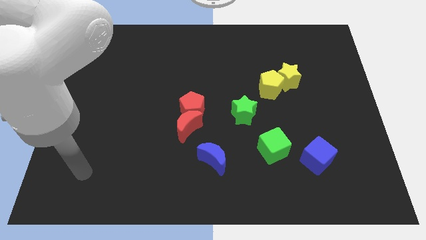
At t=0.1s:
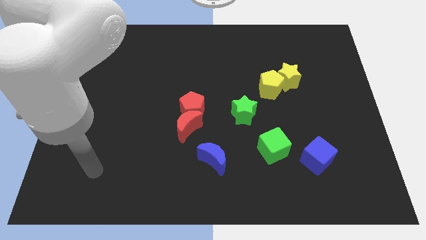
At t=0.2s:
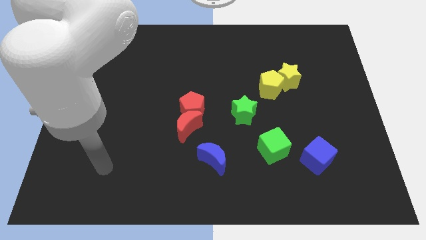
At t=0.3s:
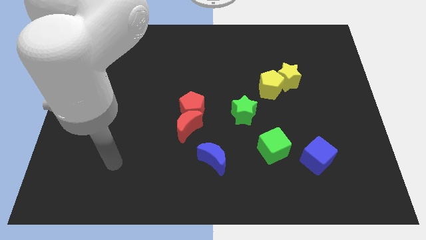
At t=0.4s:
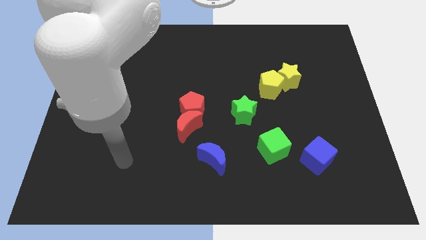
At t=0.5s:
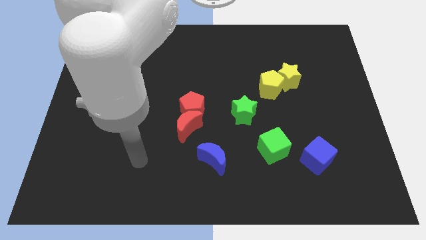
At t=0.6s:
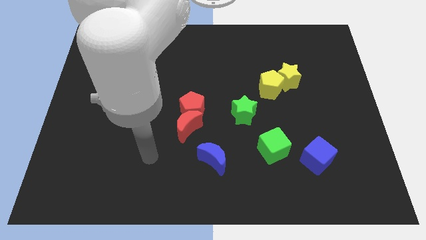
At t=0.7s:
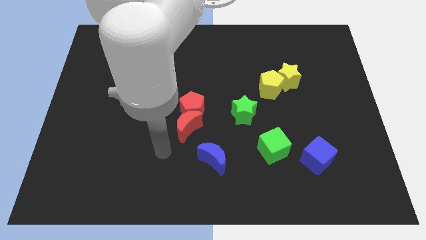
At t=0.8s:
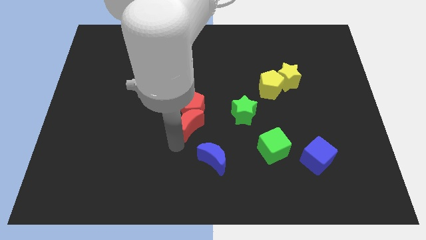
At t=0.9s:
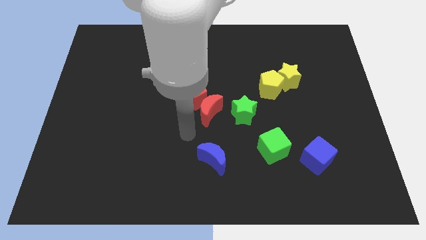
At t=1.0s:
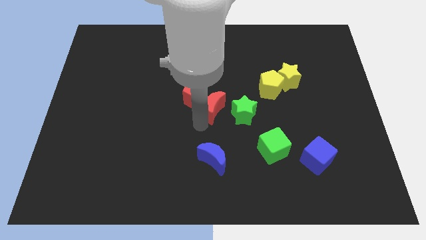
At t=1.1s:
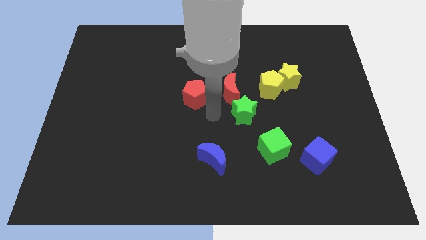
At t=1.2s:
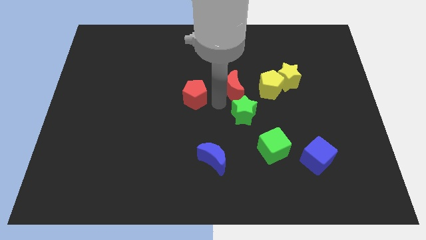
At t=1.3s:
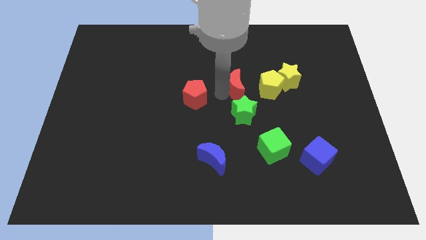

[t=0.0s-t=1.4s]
pull the red pentagon apart from the red moon

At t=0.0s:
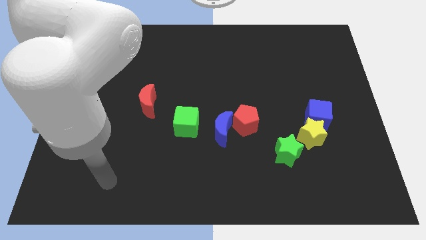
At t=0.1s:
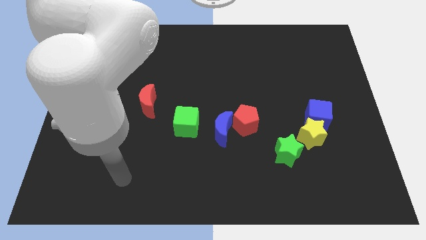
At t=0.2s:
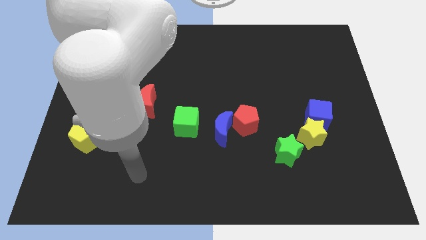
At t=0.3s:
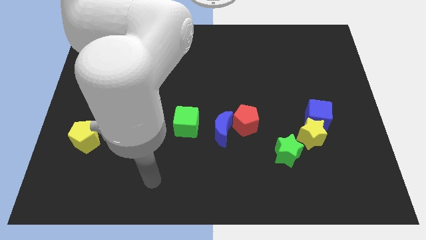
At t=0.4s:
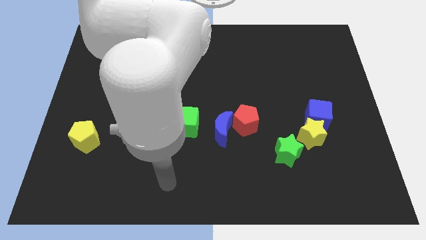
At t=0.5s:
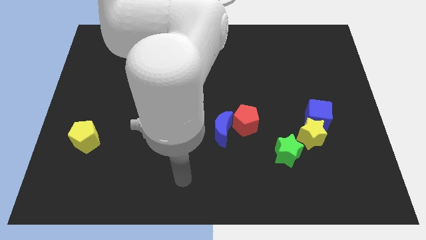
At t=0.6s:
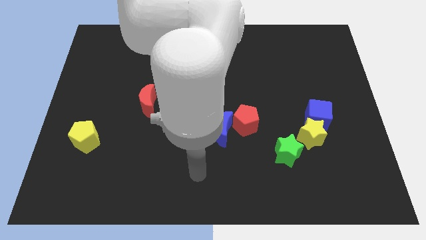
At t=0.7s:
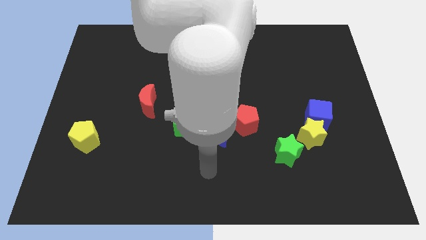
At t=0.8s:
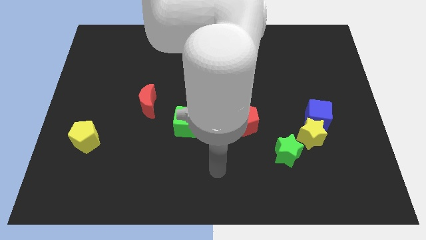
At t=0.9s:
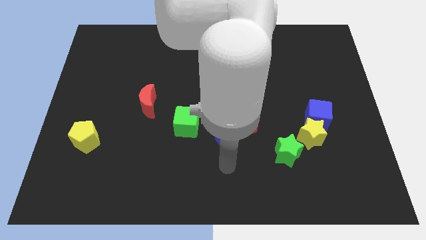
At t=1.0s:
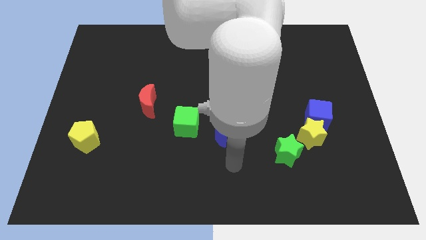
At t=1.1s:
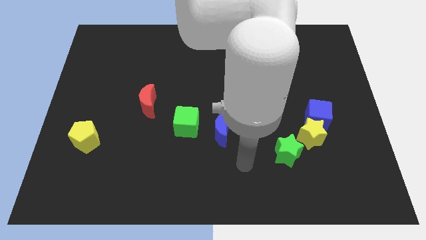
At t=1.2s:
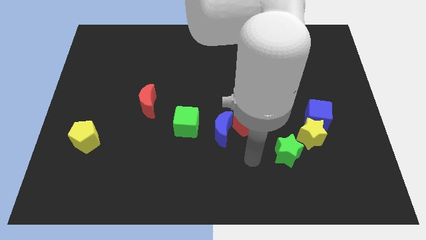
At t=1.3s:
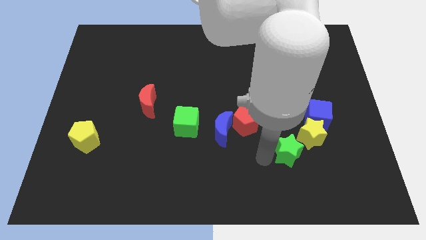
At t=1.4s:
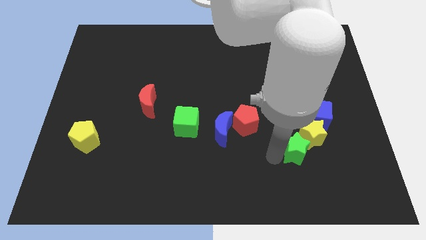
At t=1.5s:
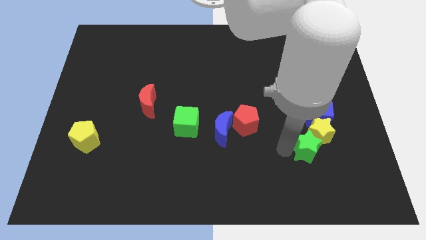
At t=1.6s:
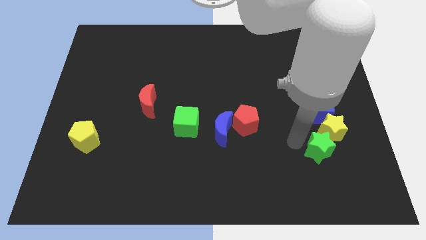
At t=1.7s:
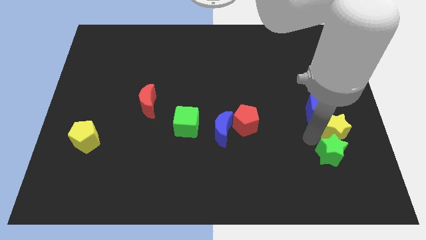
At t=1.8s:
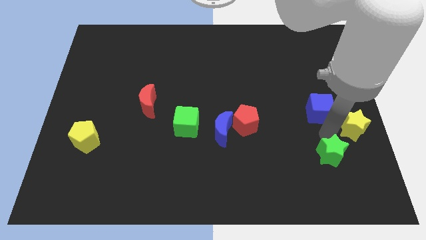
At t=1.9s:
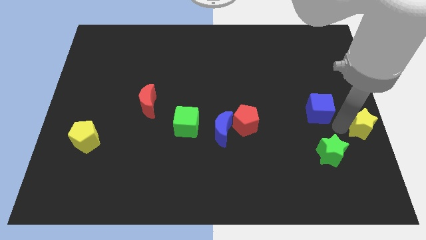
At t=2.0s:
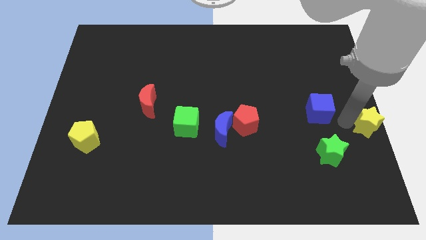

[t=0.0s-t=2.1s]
separate the blue cube from the yellow star

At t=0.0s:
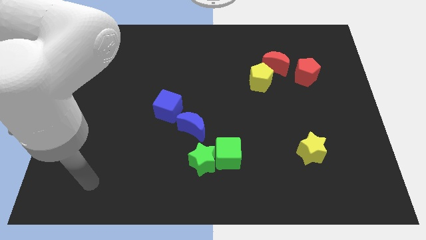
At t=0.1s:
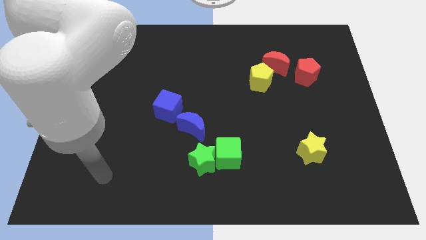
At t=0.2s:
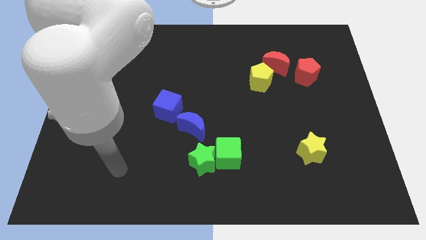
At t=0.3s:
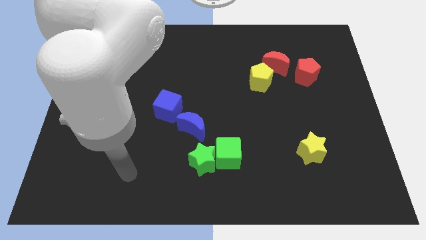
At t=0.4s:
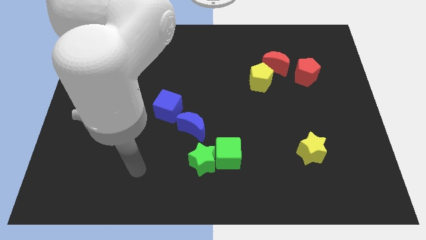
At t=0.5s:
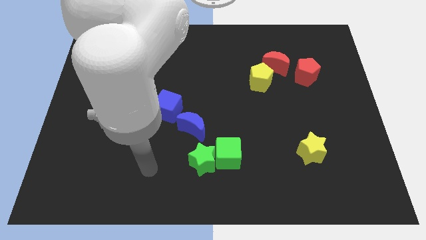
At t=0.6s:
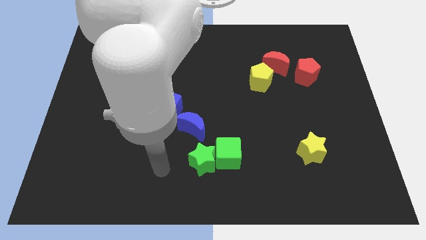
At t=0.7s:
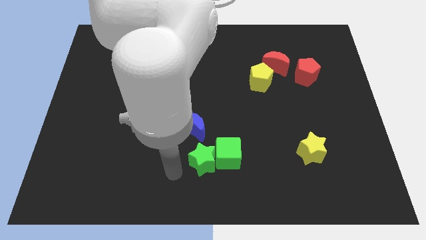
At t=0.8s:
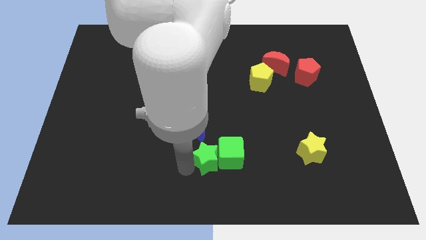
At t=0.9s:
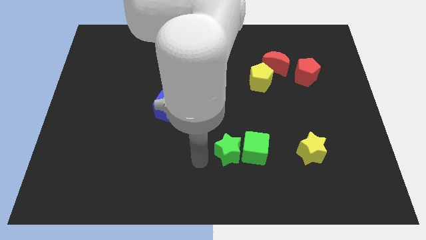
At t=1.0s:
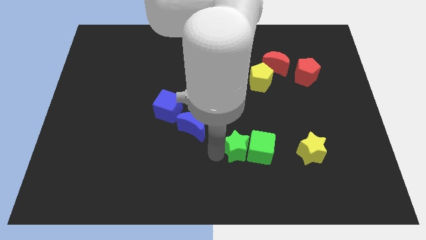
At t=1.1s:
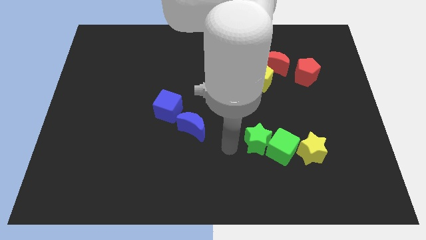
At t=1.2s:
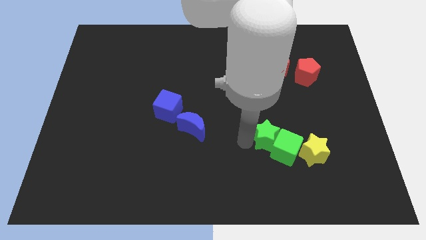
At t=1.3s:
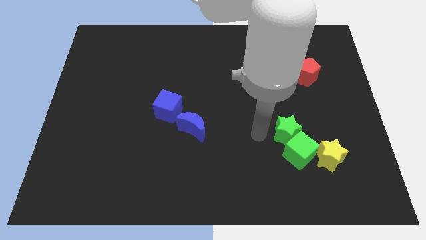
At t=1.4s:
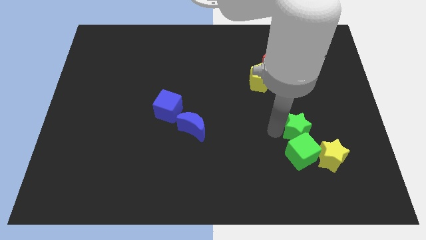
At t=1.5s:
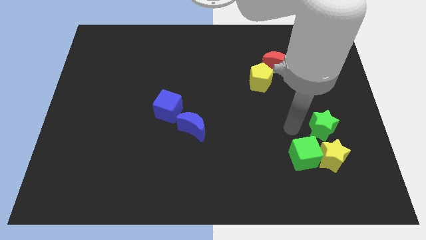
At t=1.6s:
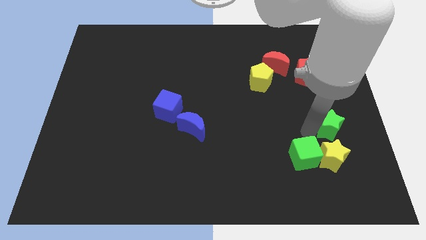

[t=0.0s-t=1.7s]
pull the green cube apart from the green star

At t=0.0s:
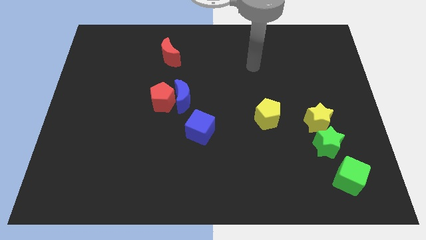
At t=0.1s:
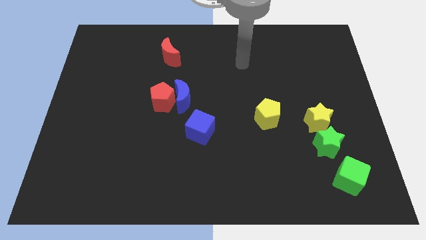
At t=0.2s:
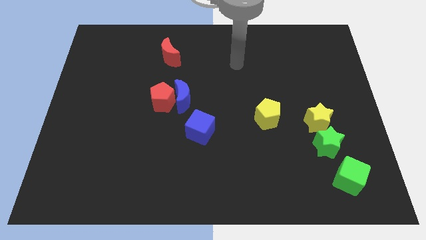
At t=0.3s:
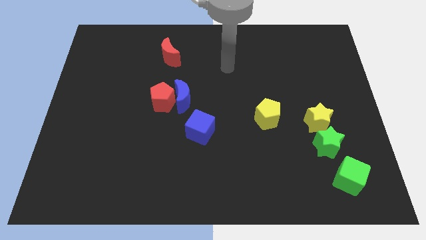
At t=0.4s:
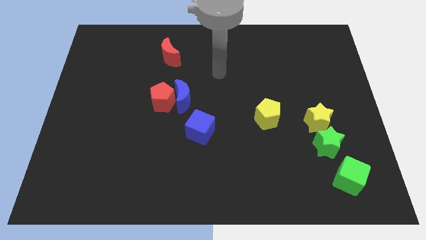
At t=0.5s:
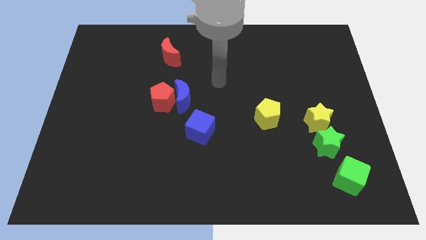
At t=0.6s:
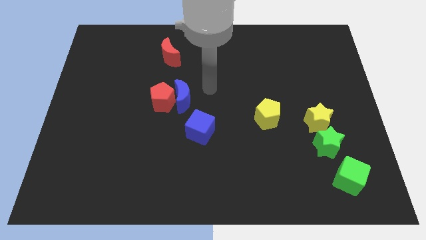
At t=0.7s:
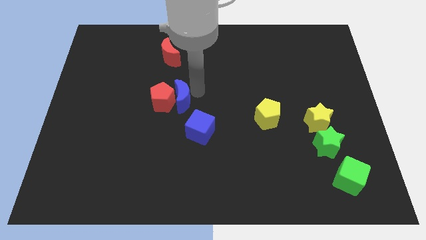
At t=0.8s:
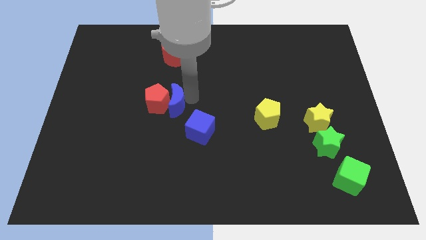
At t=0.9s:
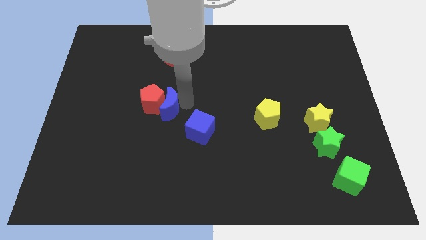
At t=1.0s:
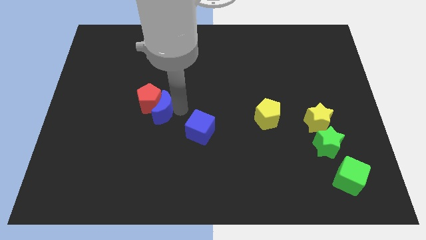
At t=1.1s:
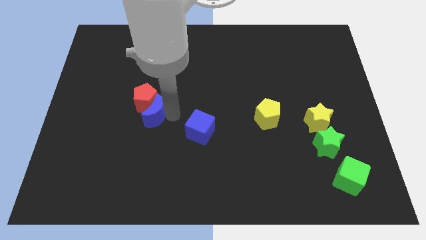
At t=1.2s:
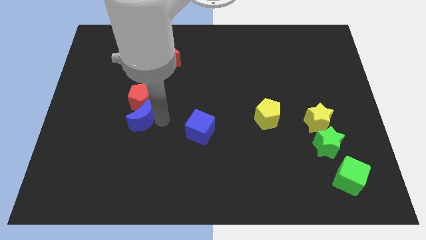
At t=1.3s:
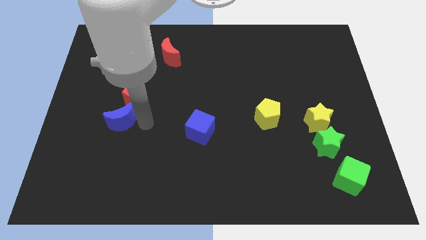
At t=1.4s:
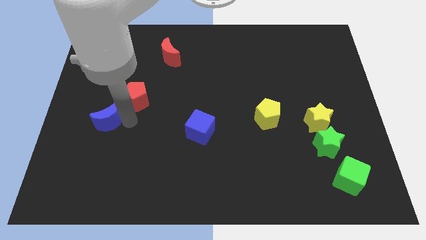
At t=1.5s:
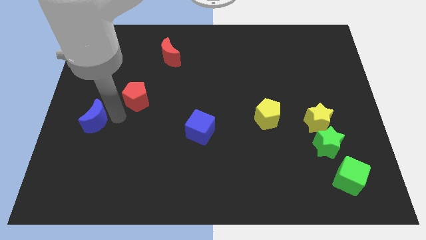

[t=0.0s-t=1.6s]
separate the red pentagon from the blue moon

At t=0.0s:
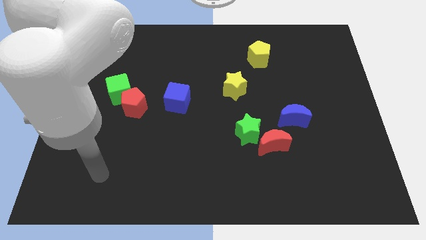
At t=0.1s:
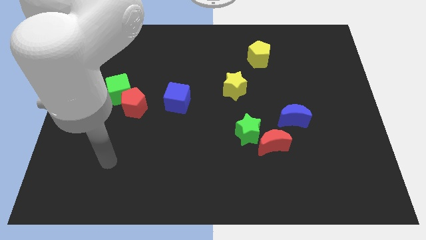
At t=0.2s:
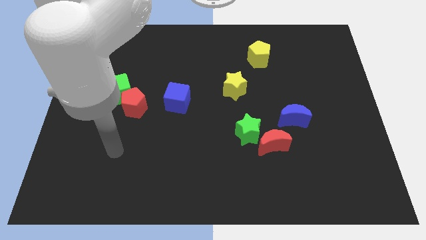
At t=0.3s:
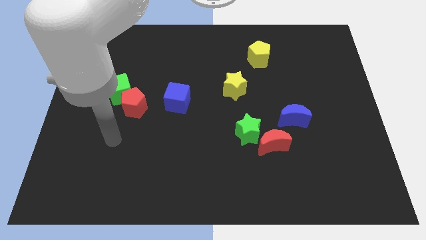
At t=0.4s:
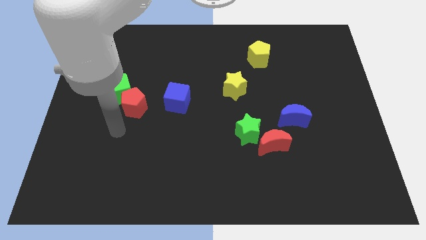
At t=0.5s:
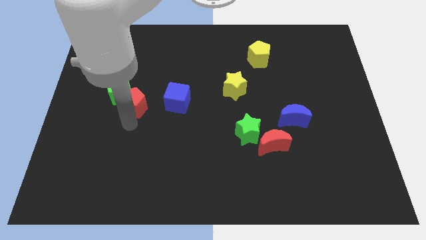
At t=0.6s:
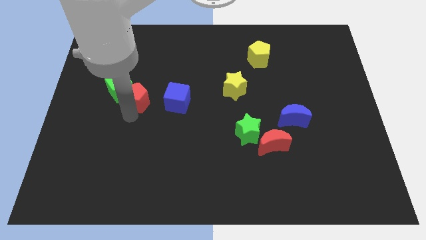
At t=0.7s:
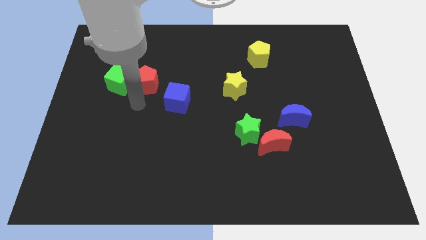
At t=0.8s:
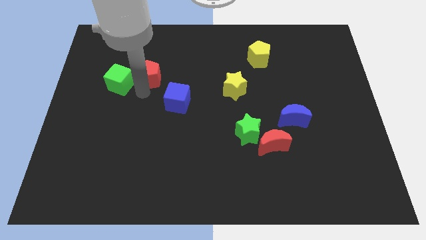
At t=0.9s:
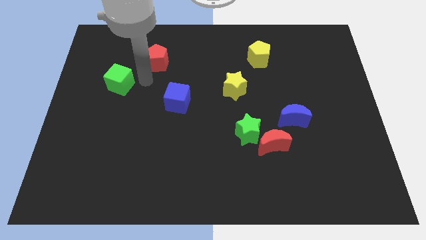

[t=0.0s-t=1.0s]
move the green cube away from the red pentagon

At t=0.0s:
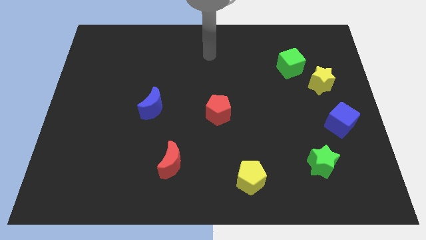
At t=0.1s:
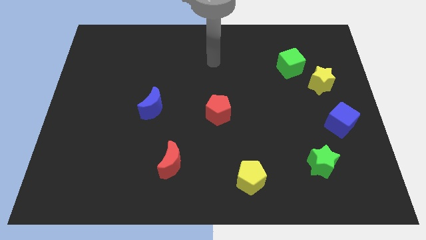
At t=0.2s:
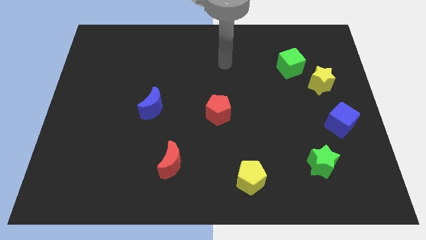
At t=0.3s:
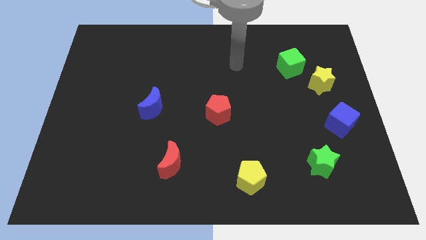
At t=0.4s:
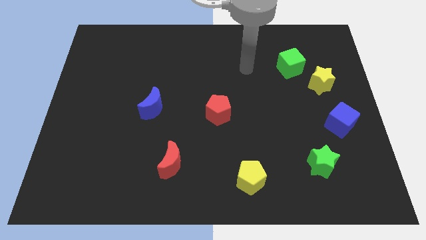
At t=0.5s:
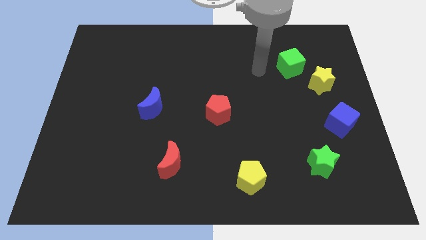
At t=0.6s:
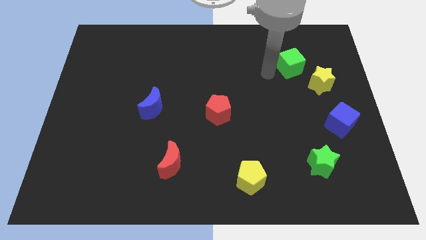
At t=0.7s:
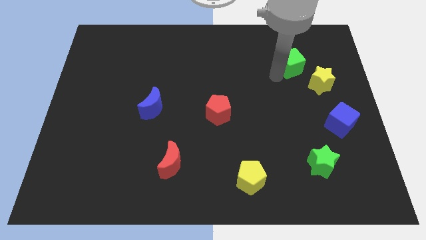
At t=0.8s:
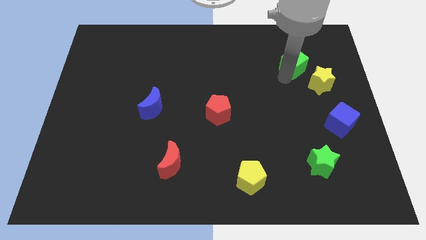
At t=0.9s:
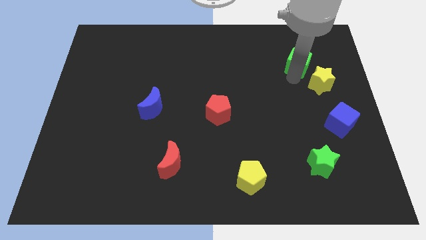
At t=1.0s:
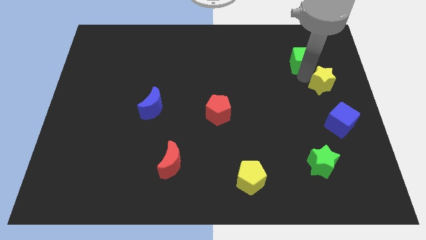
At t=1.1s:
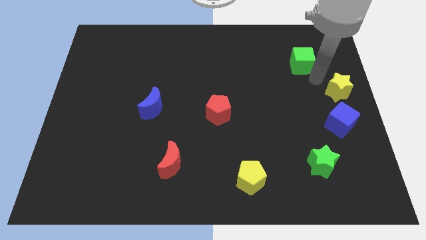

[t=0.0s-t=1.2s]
separate the green cube from the yellow star

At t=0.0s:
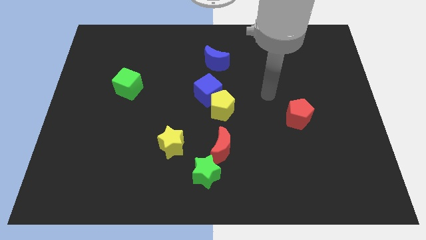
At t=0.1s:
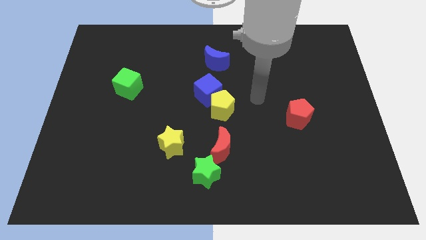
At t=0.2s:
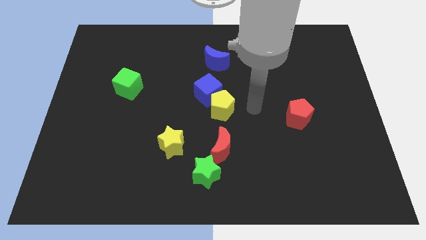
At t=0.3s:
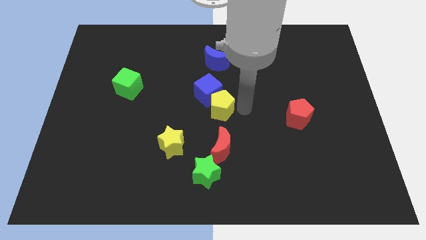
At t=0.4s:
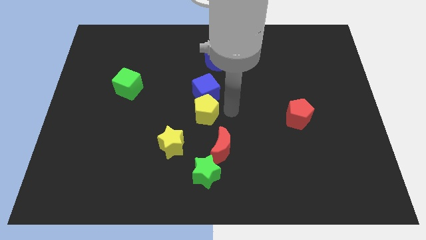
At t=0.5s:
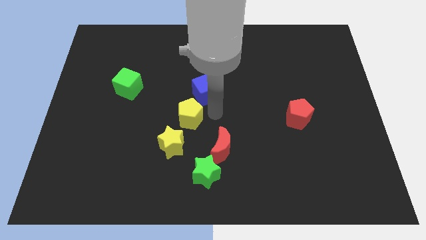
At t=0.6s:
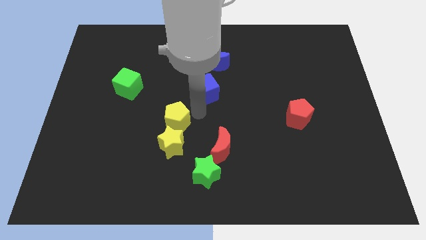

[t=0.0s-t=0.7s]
pull the blue cube apart from the yellow pentagon
